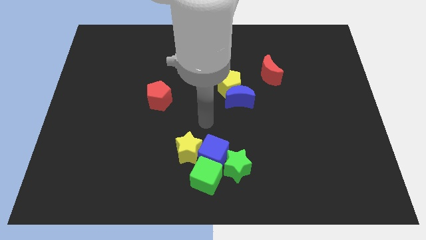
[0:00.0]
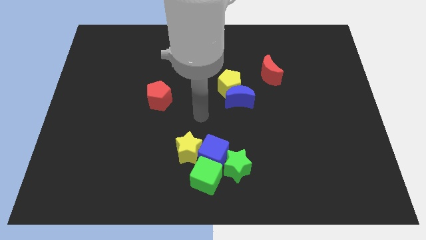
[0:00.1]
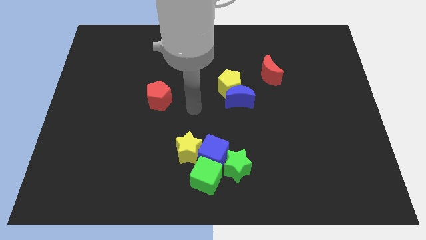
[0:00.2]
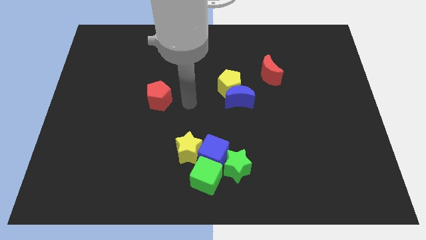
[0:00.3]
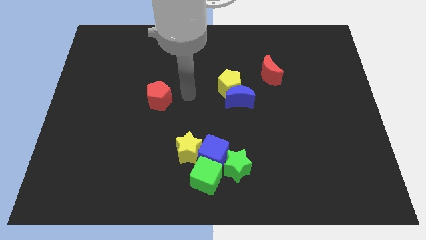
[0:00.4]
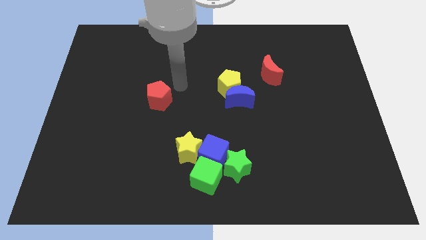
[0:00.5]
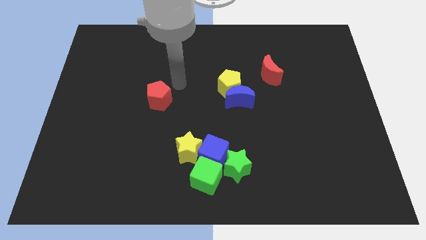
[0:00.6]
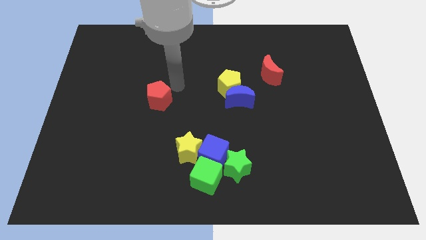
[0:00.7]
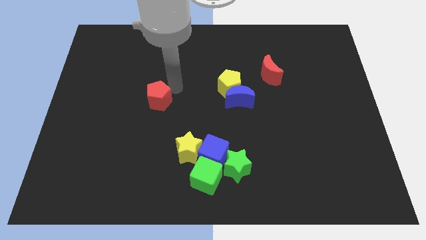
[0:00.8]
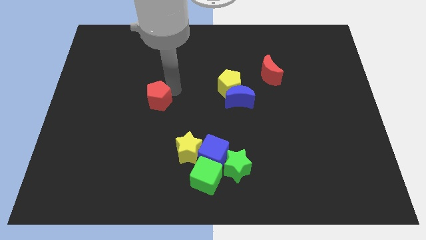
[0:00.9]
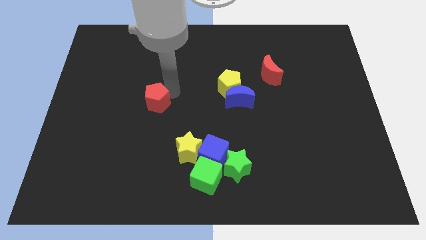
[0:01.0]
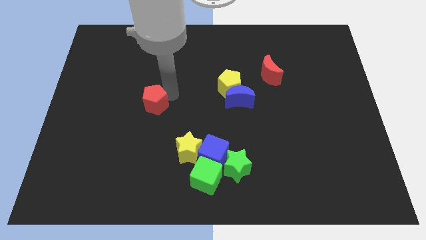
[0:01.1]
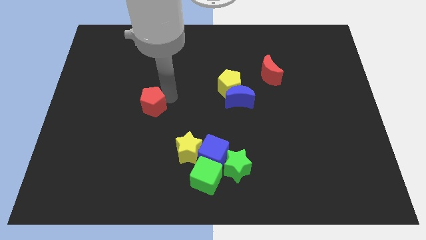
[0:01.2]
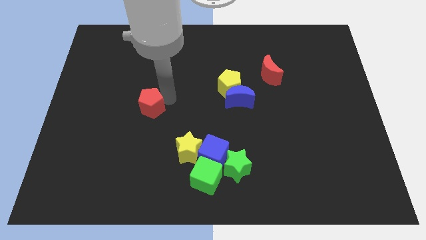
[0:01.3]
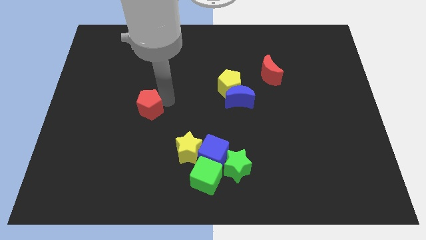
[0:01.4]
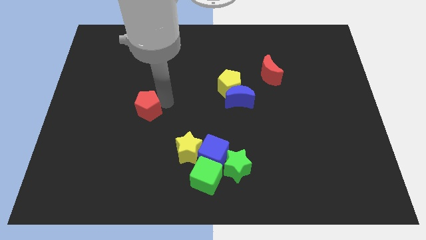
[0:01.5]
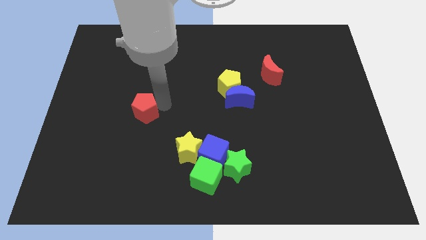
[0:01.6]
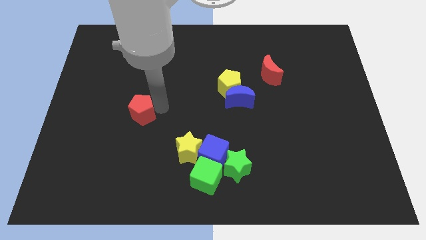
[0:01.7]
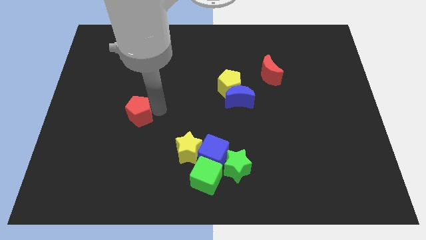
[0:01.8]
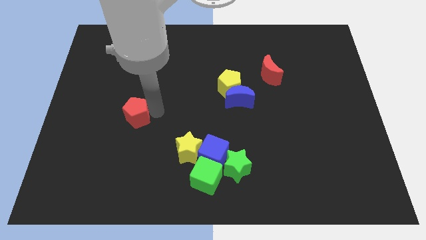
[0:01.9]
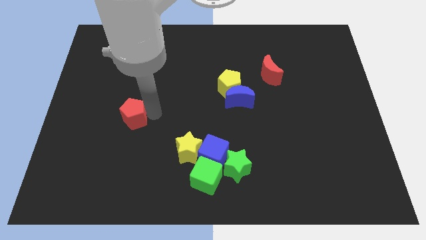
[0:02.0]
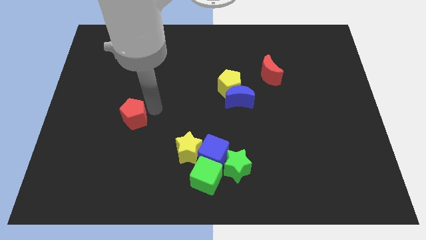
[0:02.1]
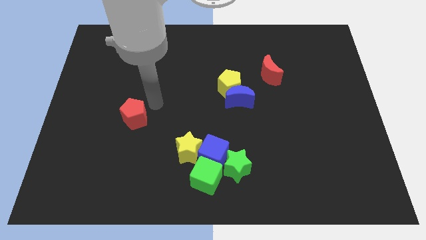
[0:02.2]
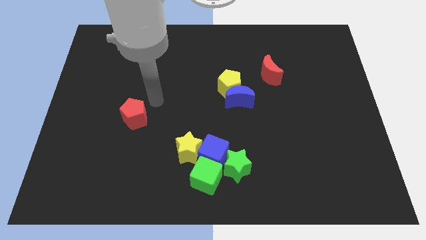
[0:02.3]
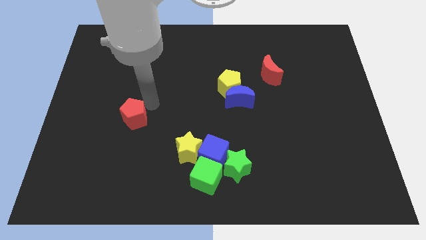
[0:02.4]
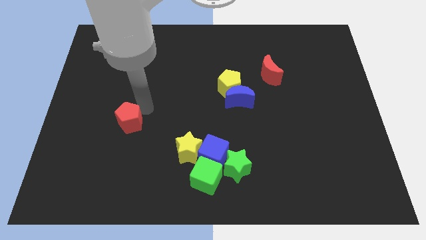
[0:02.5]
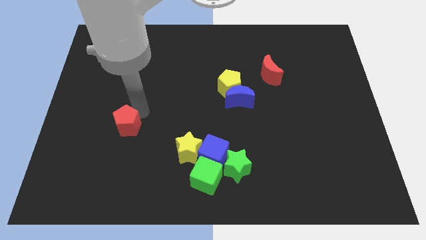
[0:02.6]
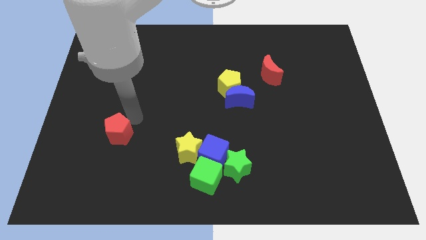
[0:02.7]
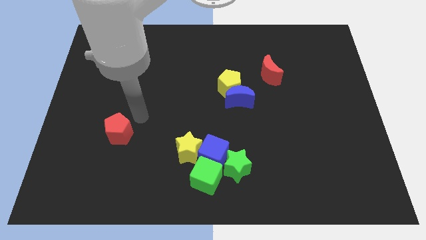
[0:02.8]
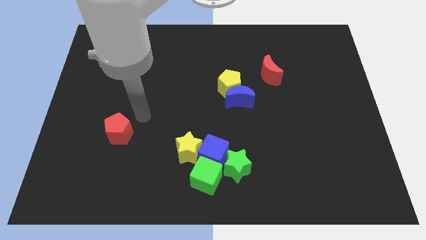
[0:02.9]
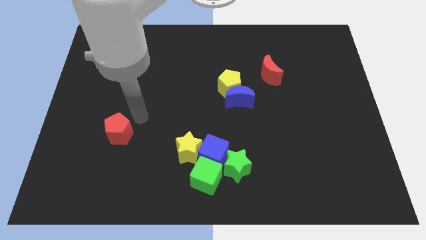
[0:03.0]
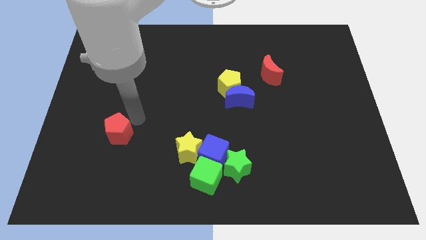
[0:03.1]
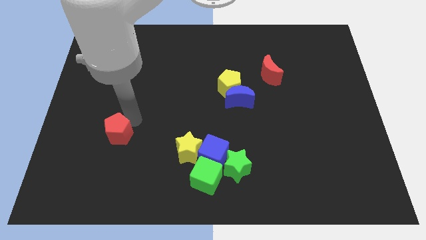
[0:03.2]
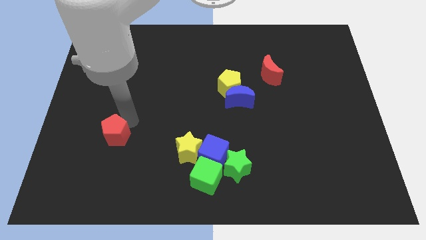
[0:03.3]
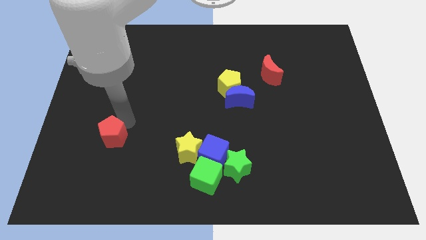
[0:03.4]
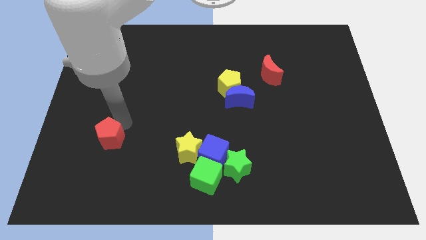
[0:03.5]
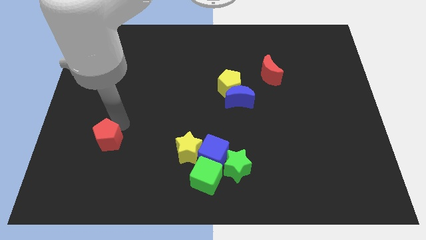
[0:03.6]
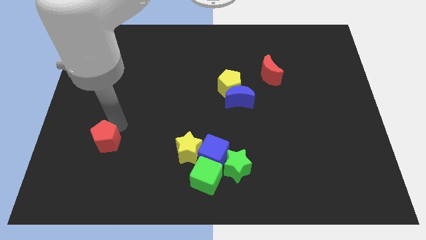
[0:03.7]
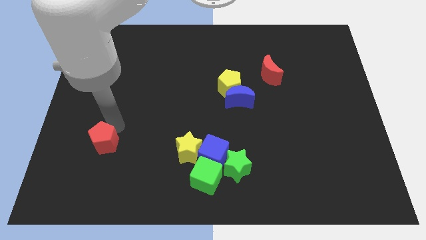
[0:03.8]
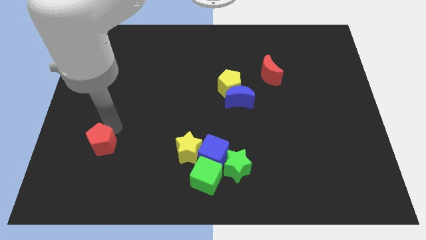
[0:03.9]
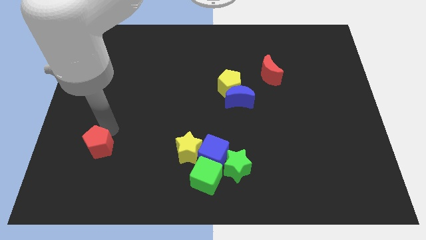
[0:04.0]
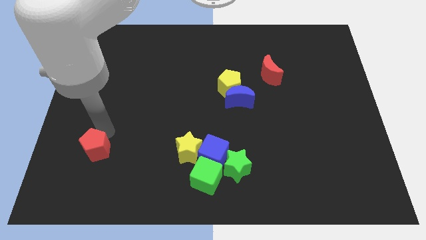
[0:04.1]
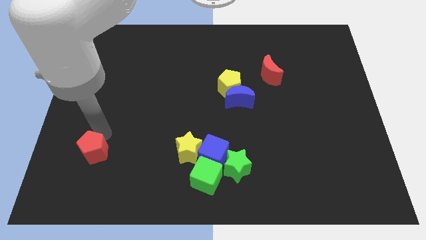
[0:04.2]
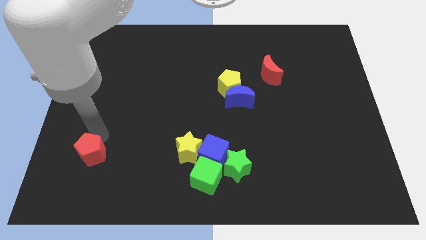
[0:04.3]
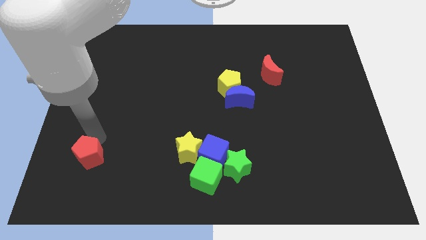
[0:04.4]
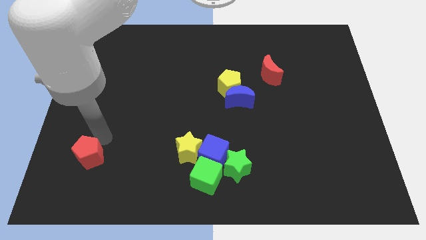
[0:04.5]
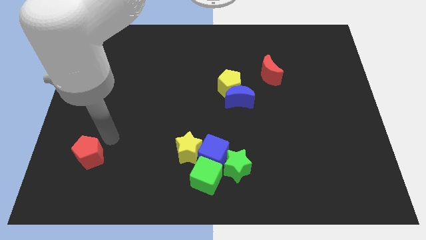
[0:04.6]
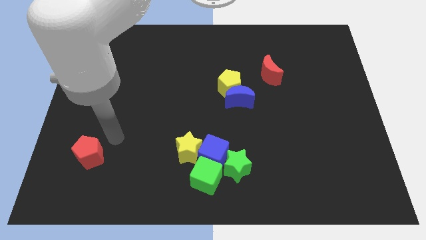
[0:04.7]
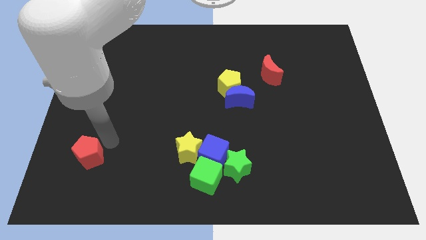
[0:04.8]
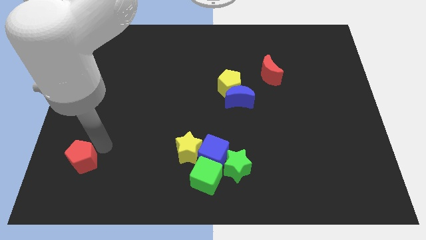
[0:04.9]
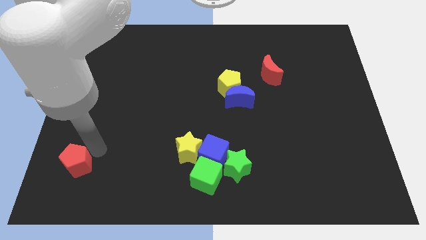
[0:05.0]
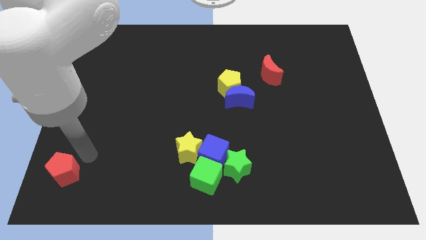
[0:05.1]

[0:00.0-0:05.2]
put the red pentagon to the bottom left corner

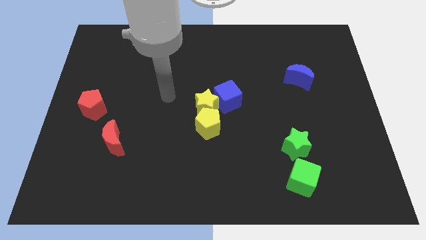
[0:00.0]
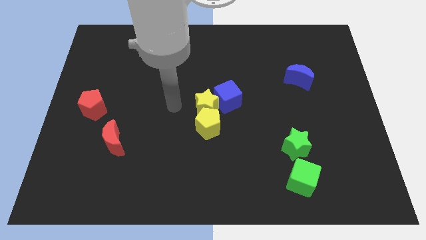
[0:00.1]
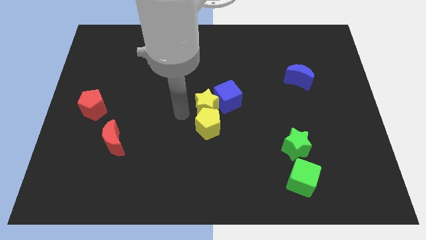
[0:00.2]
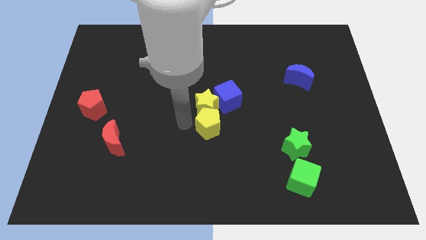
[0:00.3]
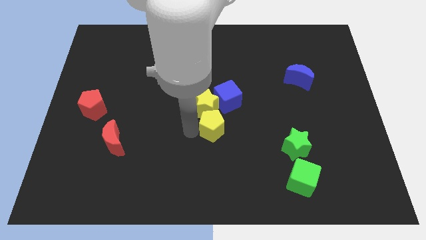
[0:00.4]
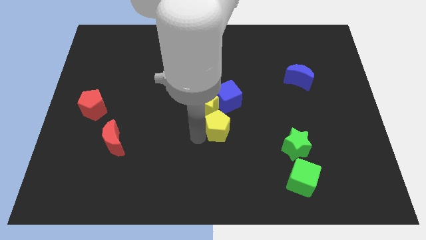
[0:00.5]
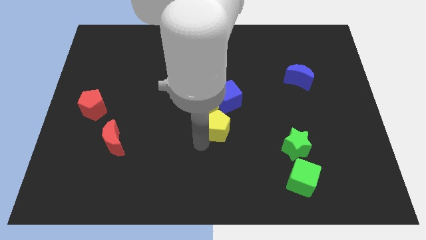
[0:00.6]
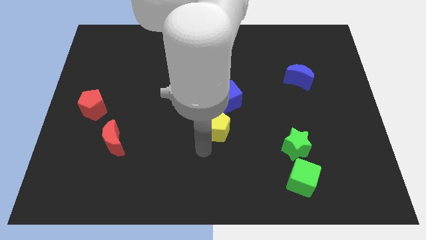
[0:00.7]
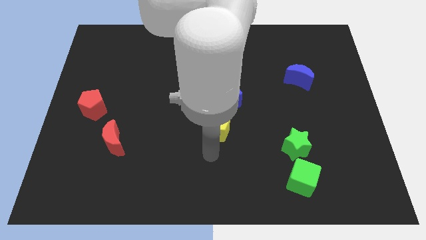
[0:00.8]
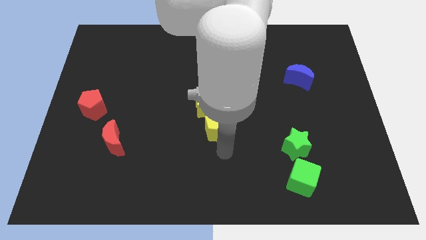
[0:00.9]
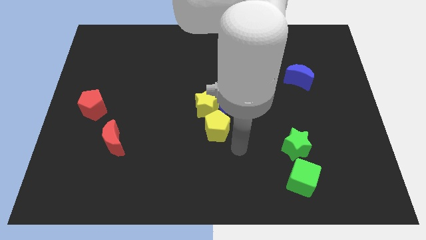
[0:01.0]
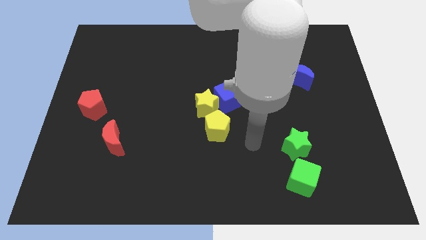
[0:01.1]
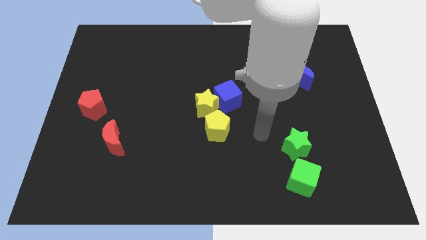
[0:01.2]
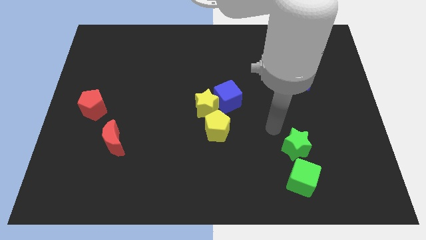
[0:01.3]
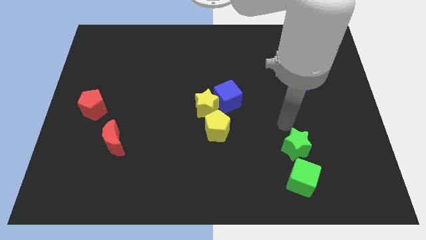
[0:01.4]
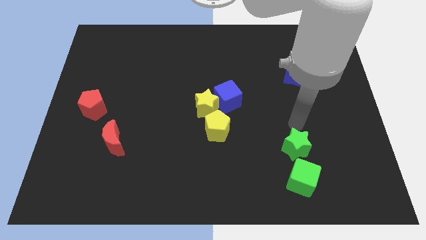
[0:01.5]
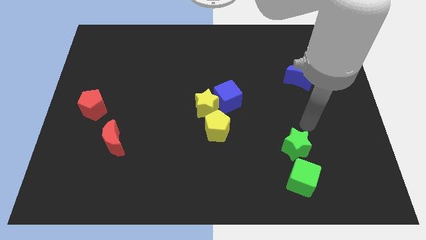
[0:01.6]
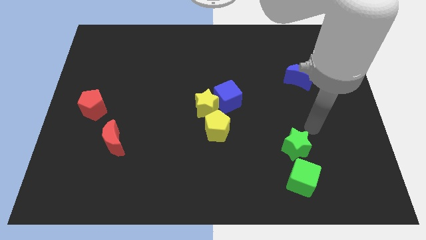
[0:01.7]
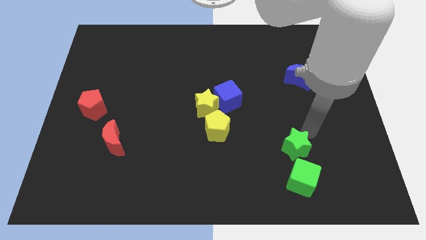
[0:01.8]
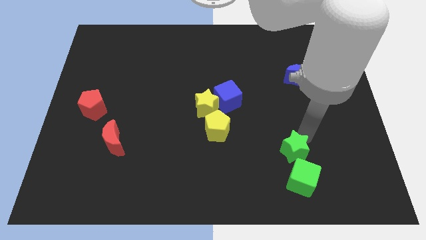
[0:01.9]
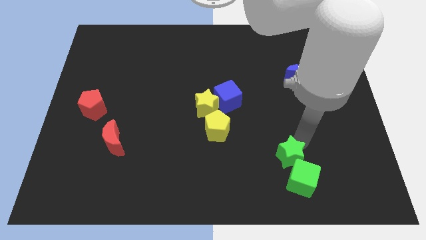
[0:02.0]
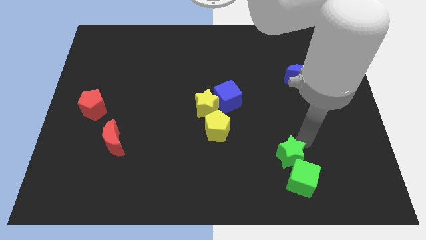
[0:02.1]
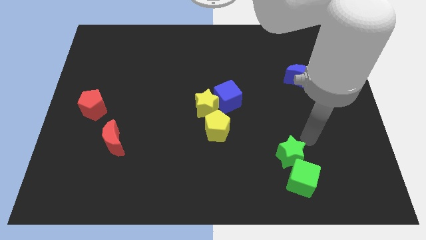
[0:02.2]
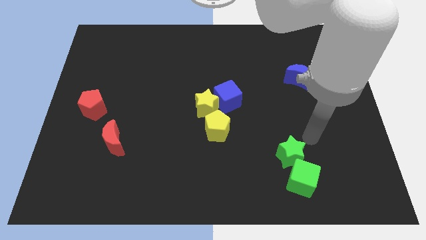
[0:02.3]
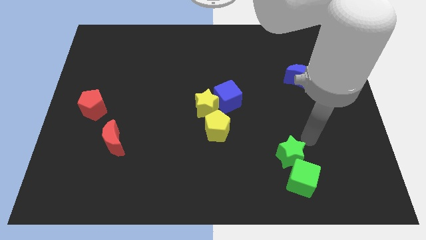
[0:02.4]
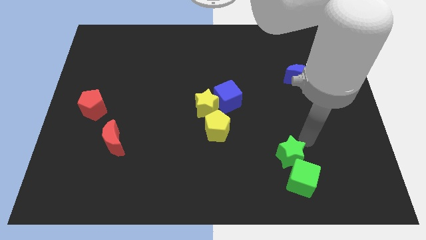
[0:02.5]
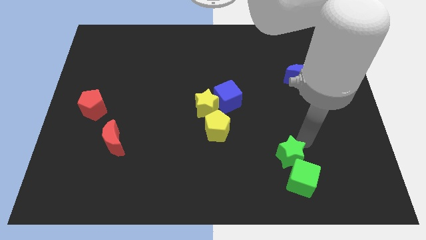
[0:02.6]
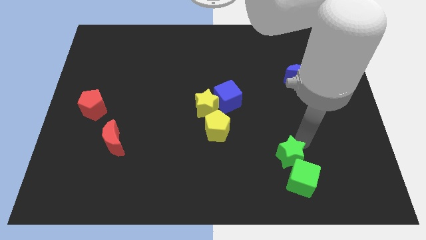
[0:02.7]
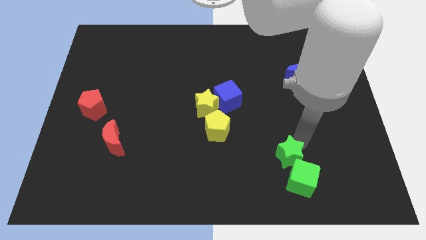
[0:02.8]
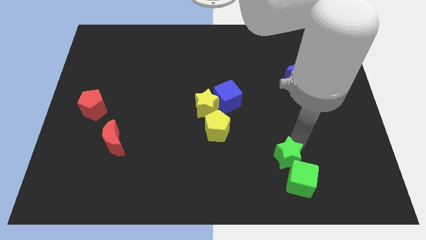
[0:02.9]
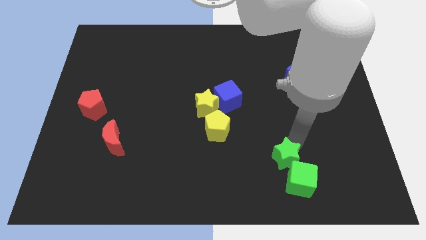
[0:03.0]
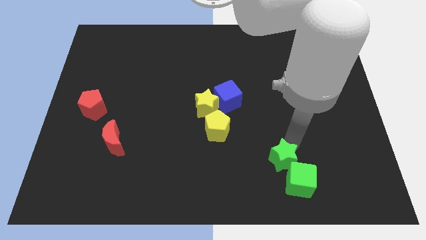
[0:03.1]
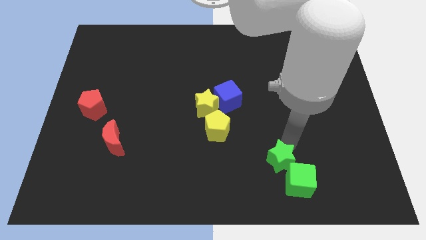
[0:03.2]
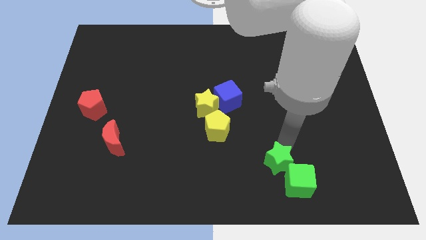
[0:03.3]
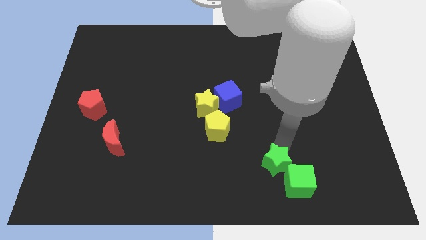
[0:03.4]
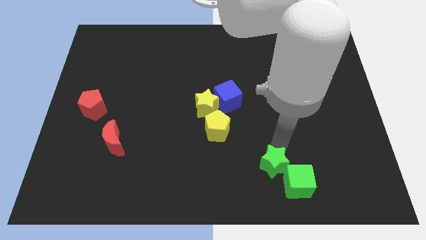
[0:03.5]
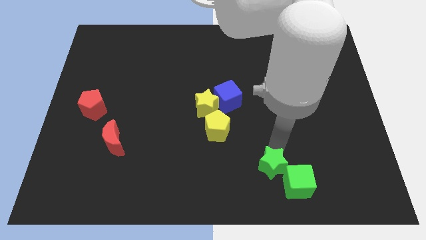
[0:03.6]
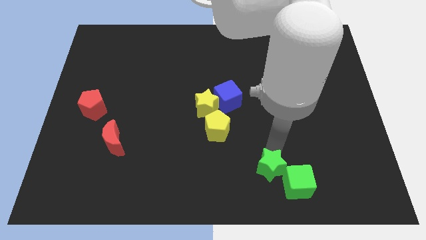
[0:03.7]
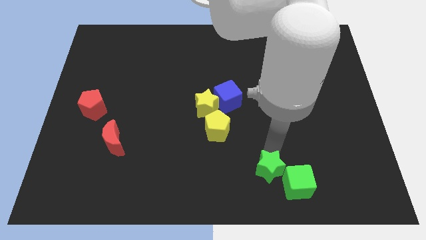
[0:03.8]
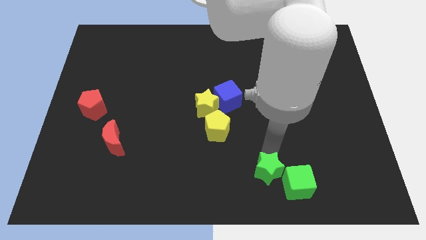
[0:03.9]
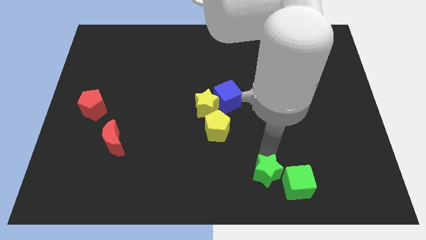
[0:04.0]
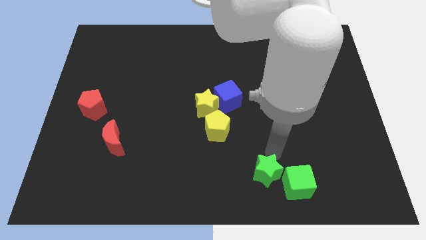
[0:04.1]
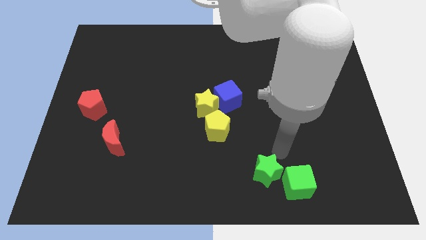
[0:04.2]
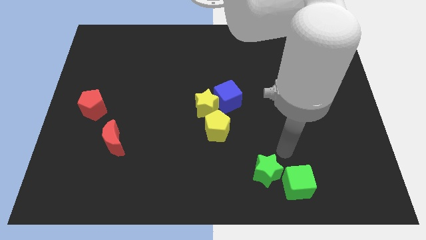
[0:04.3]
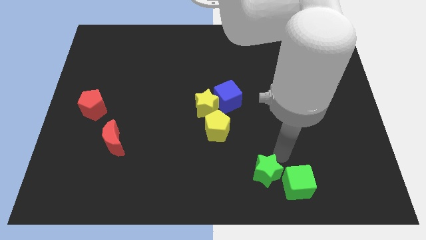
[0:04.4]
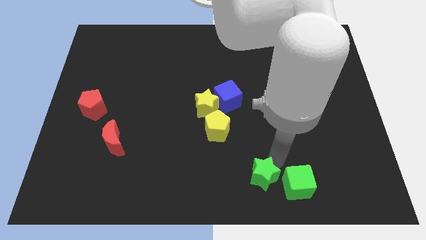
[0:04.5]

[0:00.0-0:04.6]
push the green star to the bottom side
